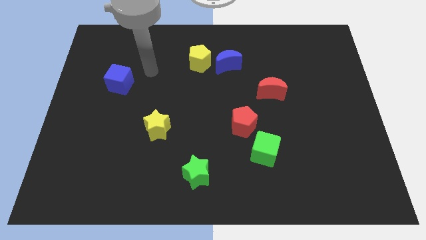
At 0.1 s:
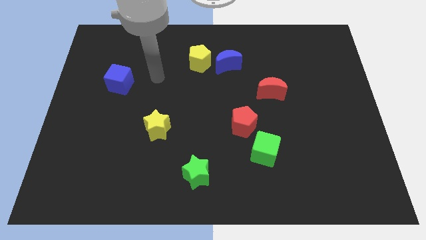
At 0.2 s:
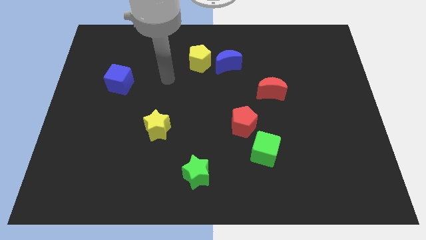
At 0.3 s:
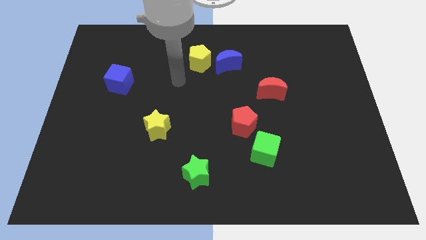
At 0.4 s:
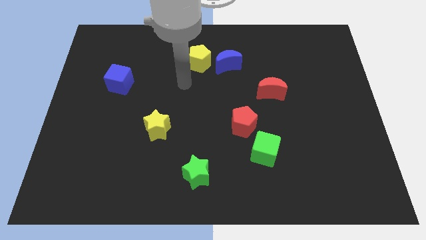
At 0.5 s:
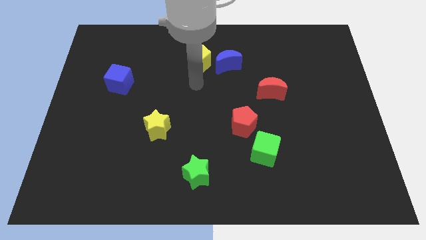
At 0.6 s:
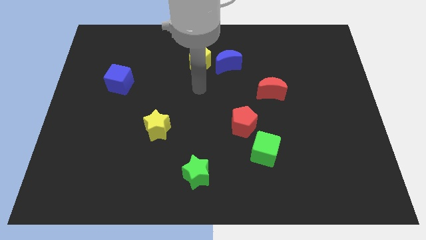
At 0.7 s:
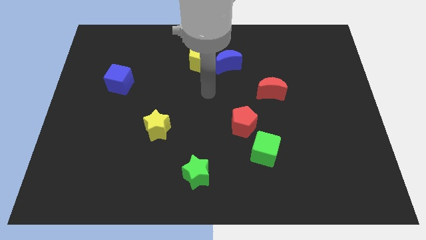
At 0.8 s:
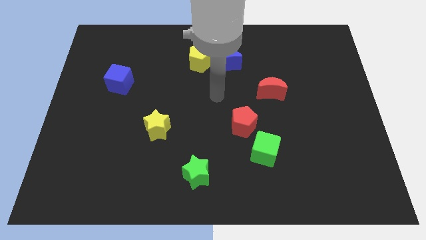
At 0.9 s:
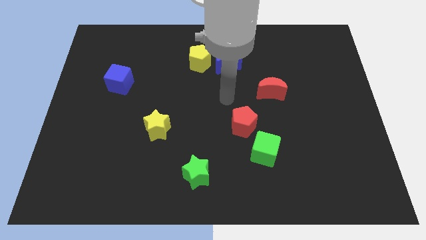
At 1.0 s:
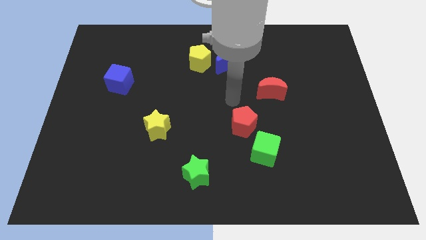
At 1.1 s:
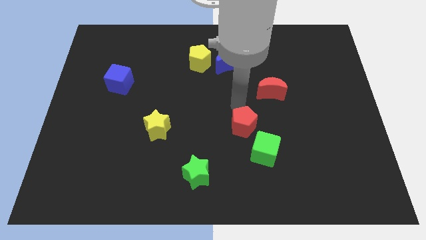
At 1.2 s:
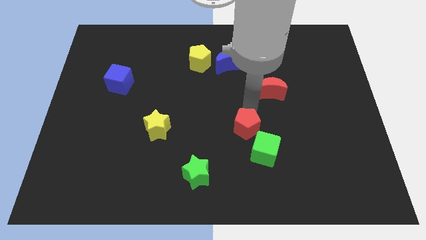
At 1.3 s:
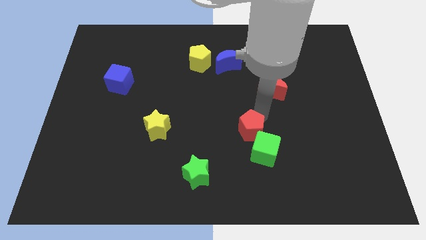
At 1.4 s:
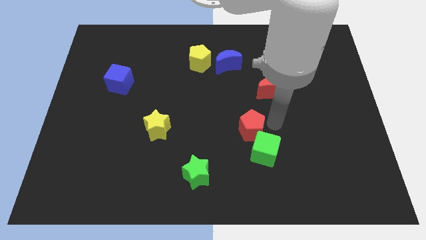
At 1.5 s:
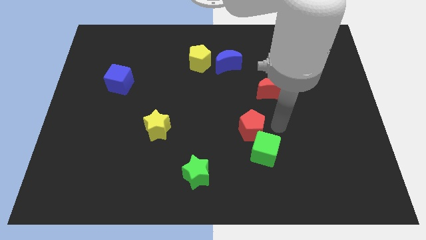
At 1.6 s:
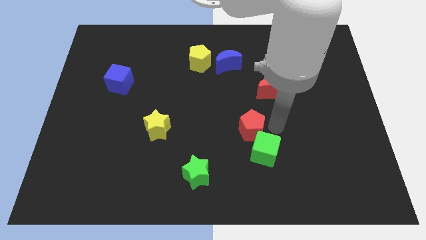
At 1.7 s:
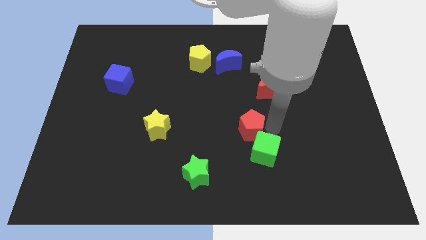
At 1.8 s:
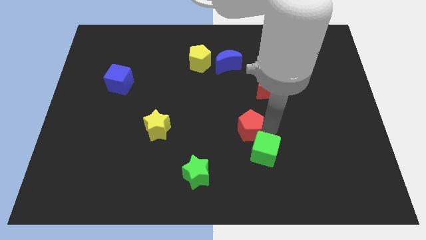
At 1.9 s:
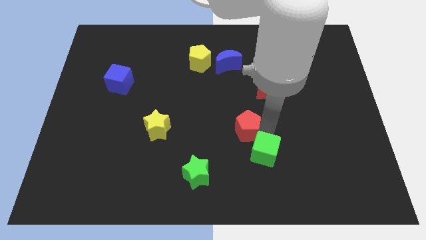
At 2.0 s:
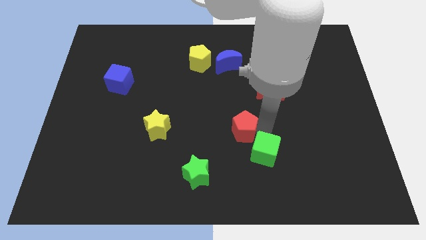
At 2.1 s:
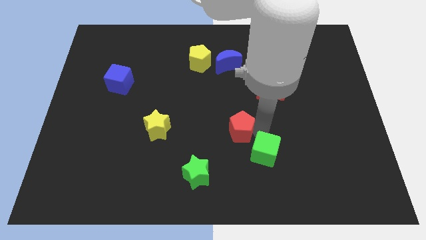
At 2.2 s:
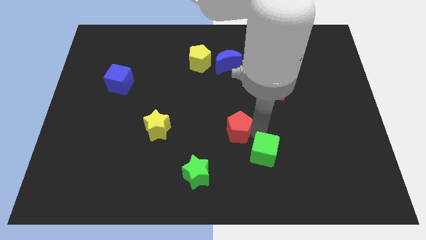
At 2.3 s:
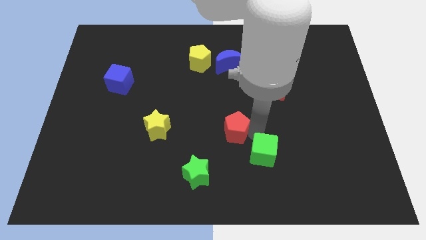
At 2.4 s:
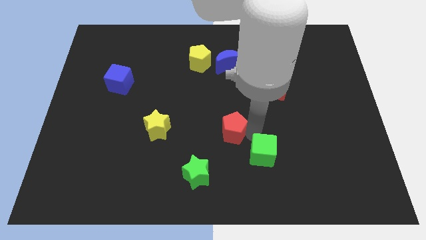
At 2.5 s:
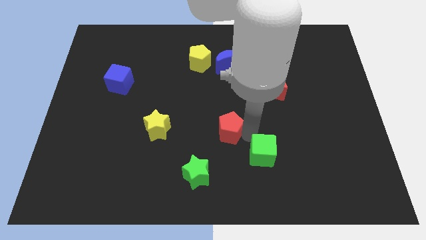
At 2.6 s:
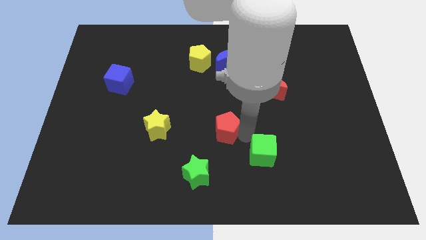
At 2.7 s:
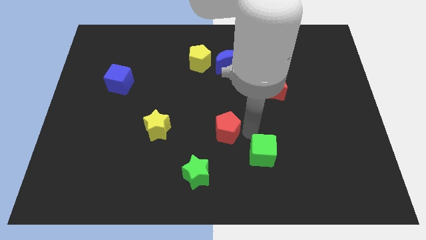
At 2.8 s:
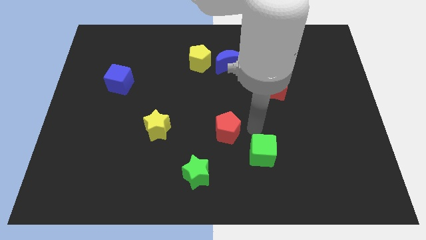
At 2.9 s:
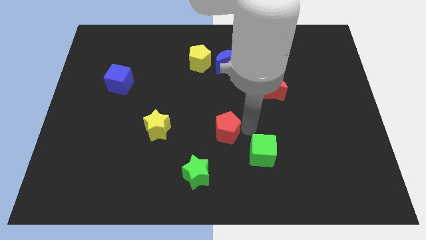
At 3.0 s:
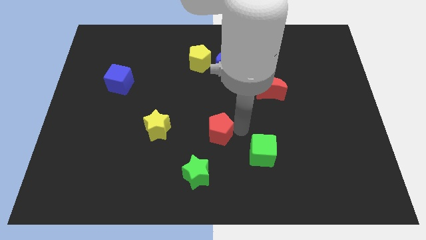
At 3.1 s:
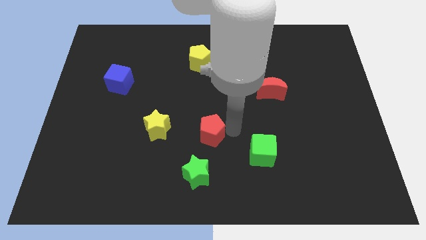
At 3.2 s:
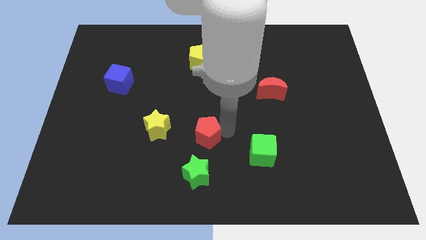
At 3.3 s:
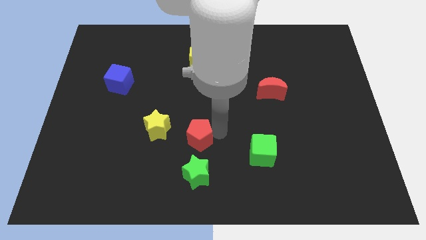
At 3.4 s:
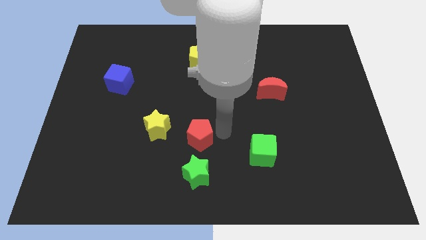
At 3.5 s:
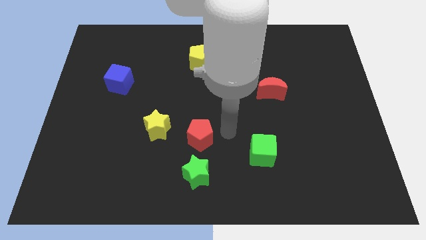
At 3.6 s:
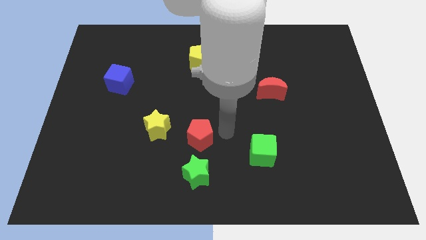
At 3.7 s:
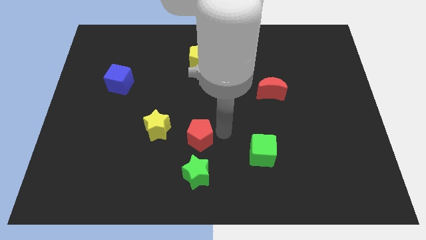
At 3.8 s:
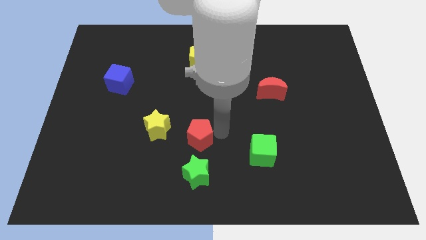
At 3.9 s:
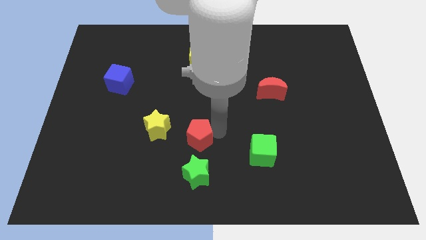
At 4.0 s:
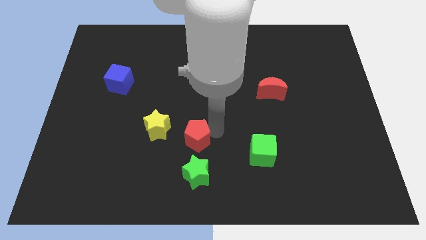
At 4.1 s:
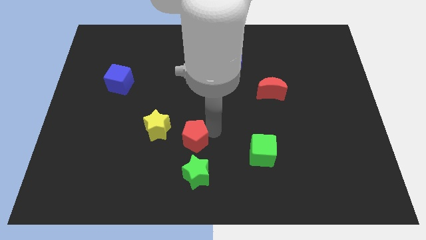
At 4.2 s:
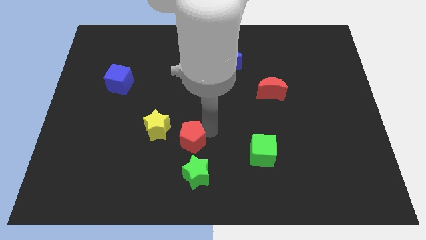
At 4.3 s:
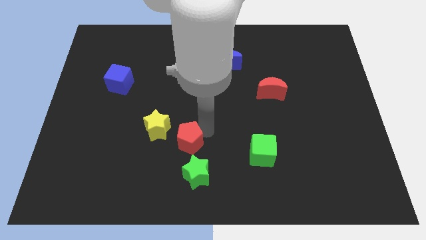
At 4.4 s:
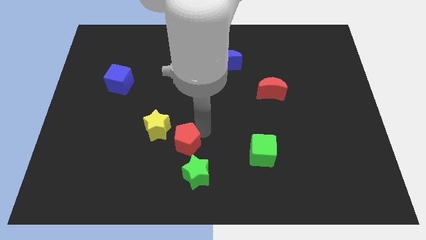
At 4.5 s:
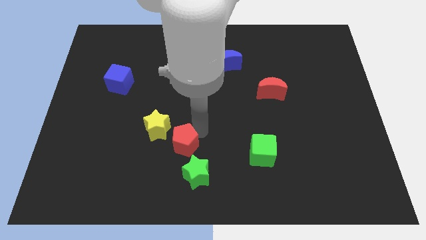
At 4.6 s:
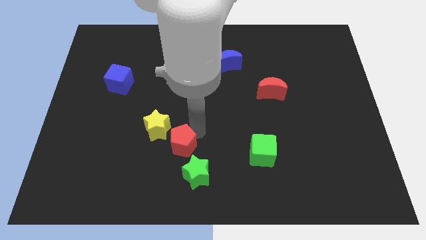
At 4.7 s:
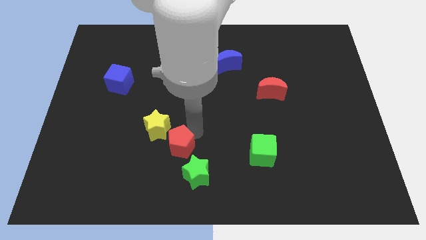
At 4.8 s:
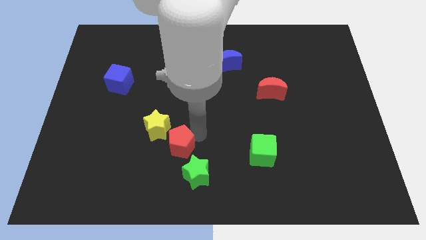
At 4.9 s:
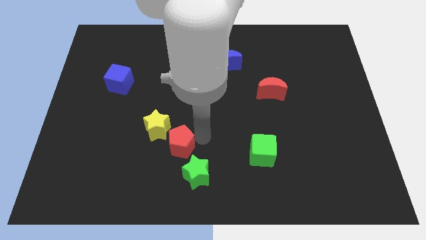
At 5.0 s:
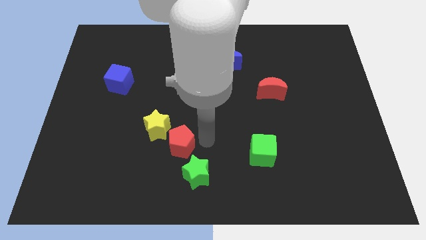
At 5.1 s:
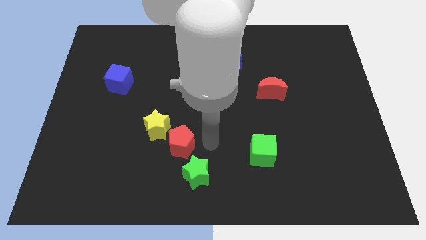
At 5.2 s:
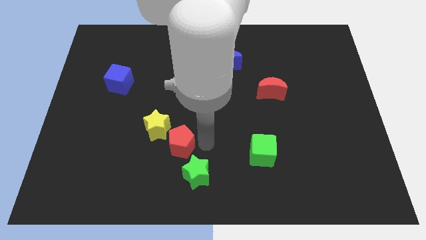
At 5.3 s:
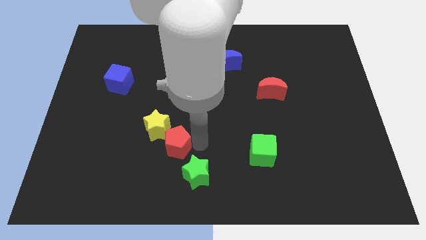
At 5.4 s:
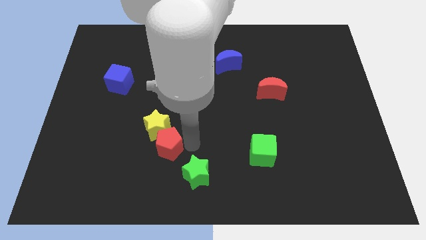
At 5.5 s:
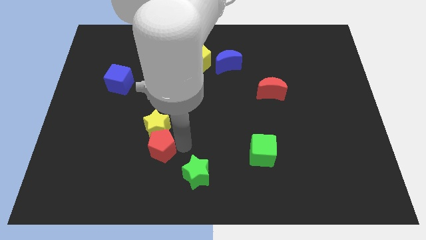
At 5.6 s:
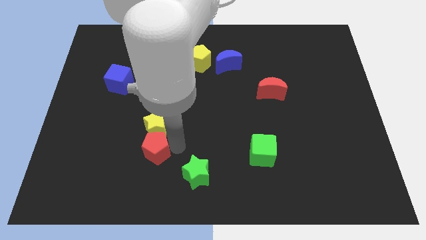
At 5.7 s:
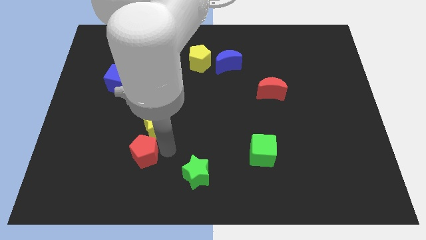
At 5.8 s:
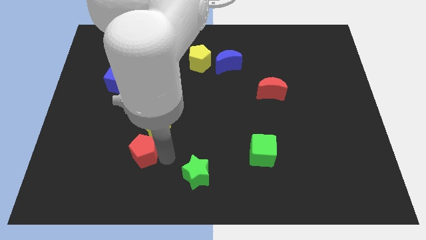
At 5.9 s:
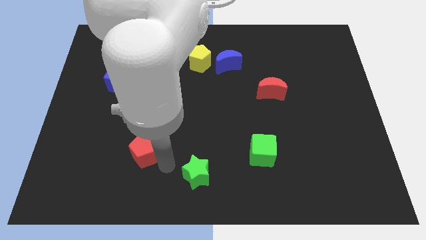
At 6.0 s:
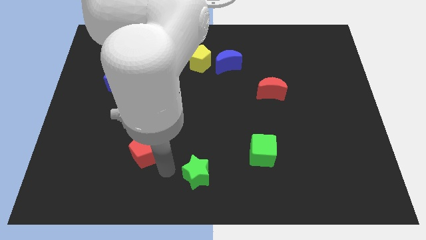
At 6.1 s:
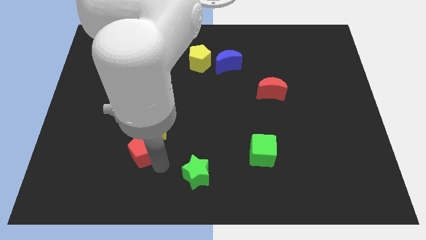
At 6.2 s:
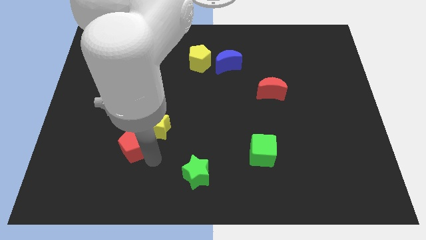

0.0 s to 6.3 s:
move the red pentagon to the left

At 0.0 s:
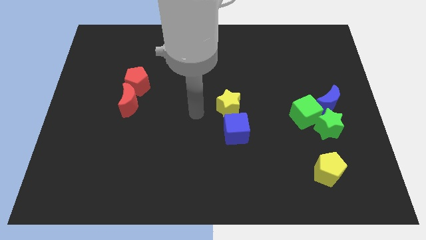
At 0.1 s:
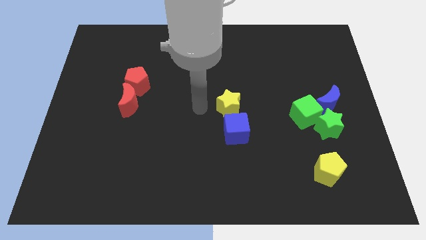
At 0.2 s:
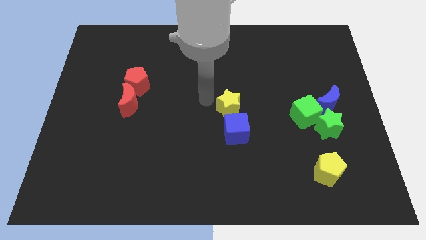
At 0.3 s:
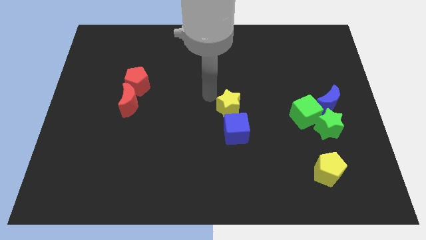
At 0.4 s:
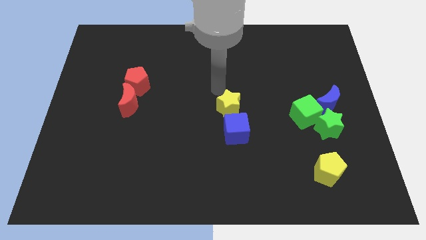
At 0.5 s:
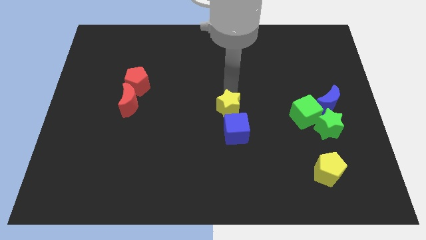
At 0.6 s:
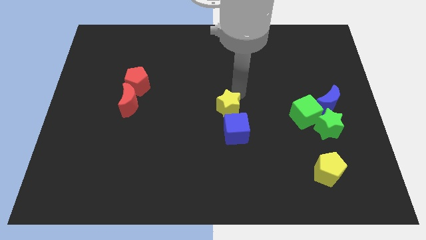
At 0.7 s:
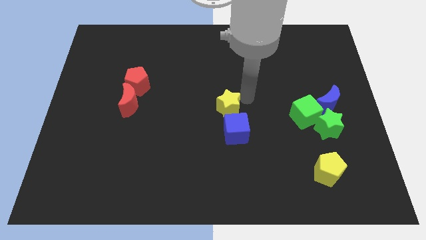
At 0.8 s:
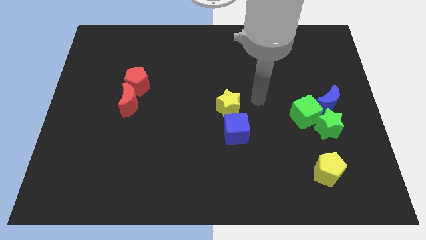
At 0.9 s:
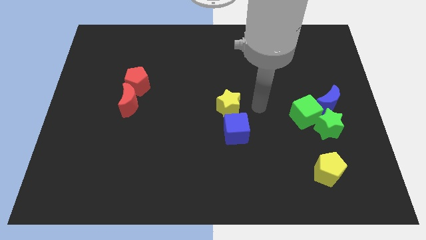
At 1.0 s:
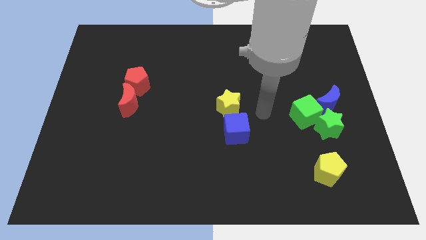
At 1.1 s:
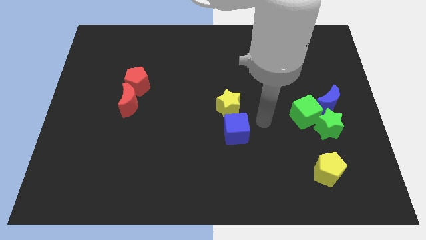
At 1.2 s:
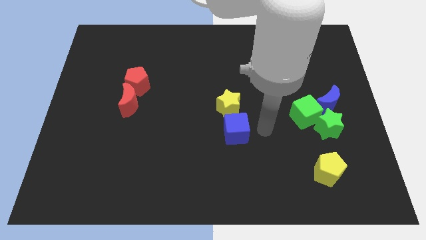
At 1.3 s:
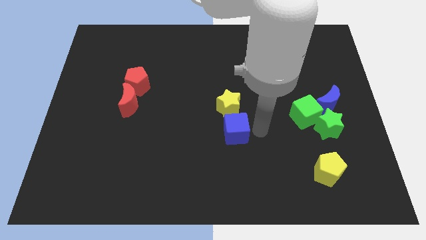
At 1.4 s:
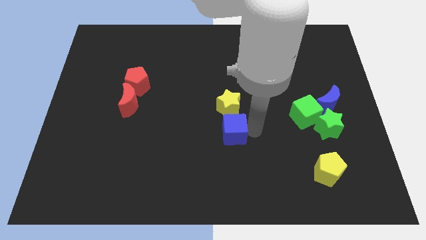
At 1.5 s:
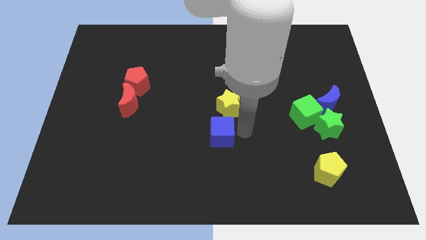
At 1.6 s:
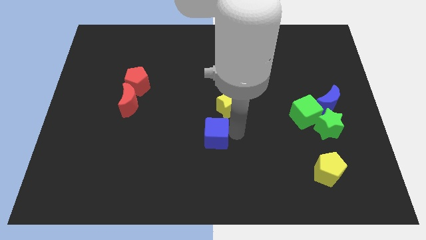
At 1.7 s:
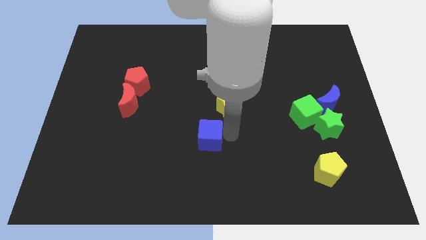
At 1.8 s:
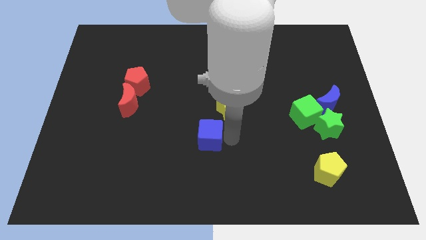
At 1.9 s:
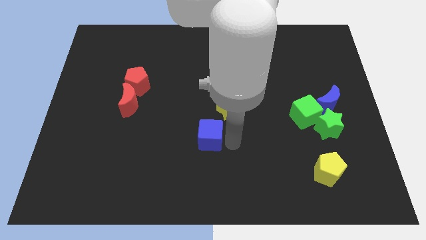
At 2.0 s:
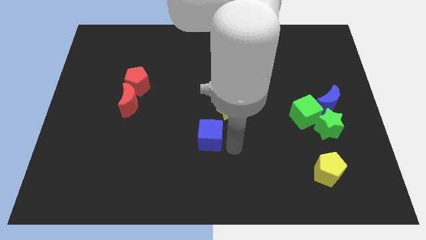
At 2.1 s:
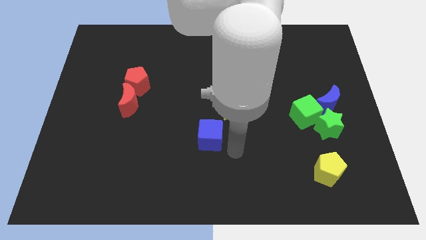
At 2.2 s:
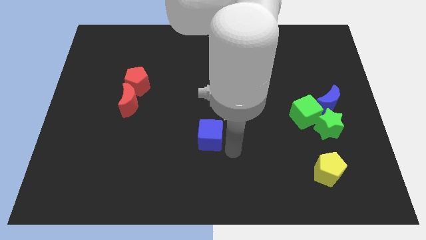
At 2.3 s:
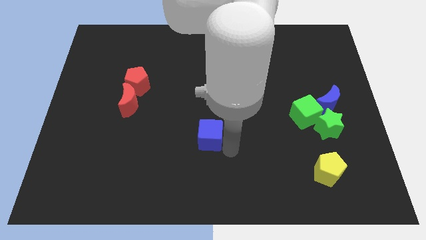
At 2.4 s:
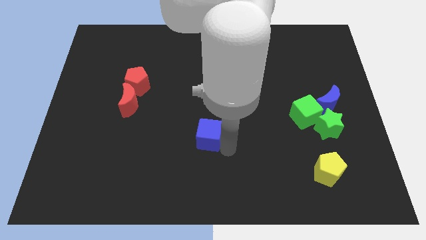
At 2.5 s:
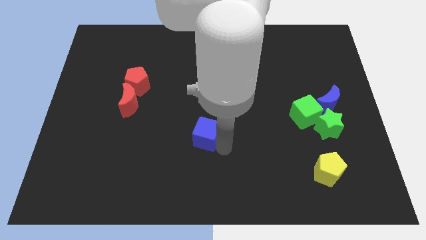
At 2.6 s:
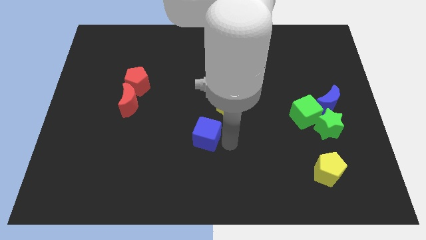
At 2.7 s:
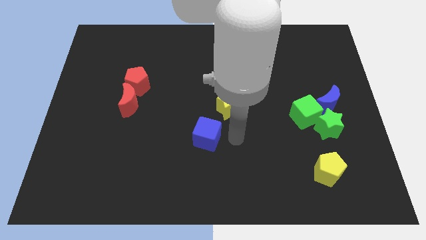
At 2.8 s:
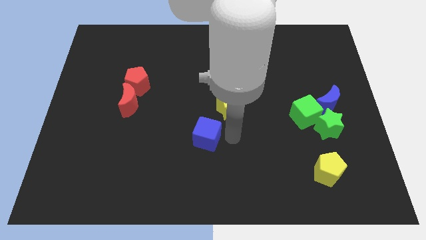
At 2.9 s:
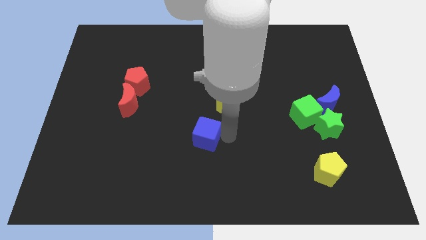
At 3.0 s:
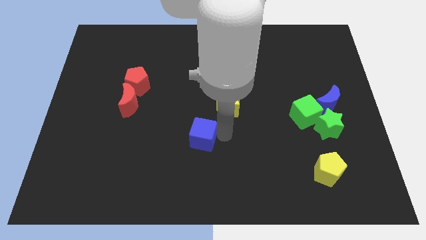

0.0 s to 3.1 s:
slightly slide the blue cube left
